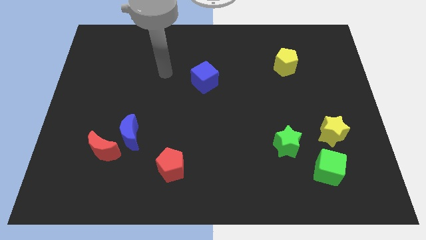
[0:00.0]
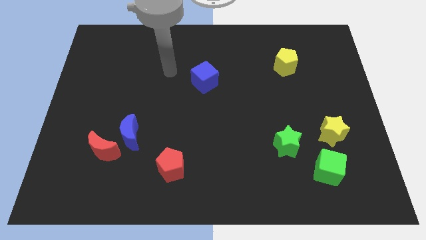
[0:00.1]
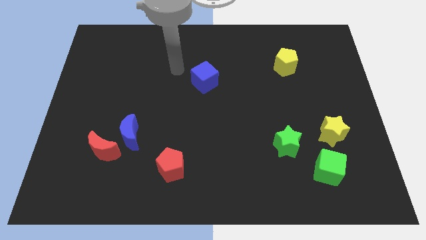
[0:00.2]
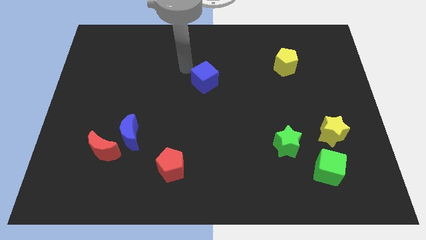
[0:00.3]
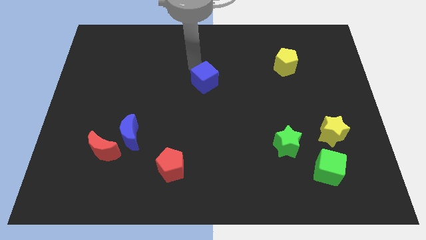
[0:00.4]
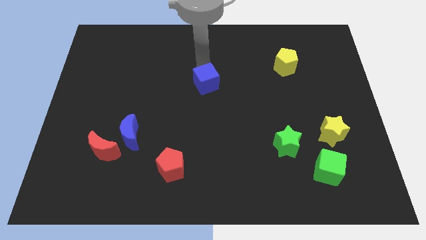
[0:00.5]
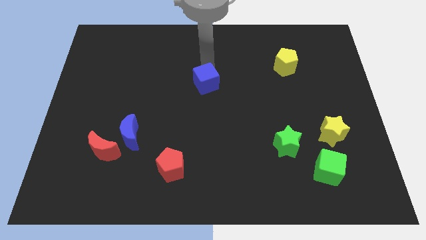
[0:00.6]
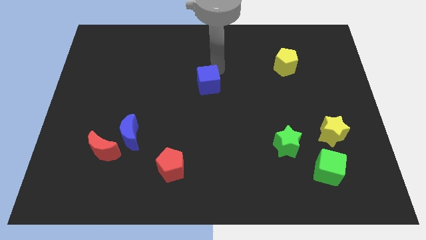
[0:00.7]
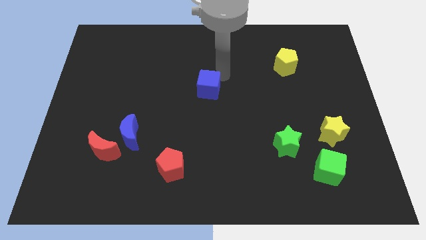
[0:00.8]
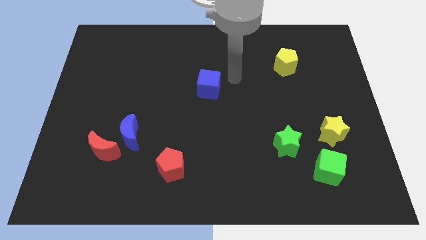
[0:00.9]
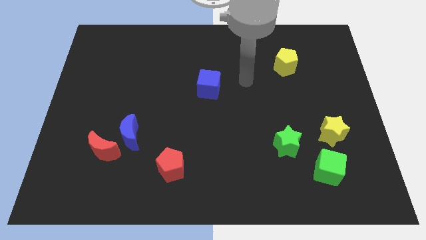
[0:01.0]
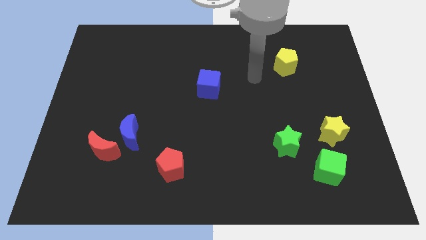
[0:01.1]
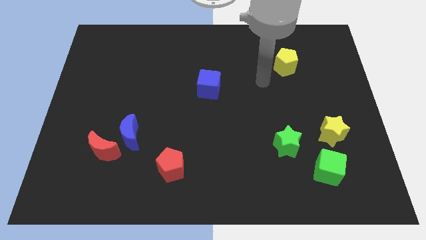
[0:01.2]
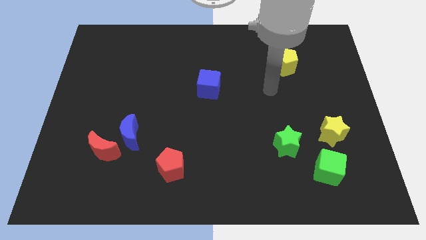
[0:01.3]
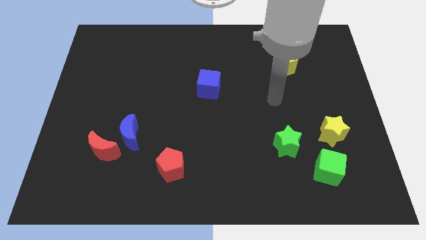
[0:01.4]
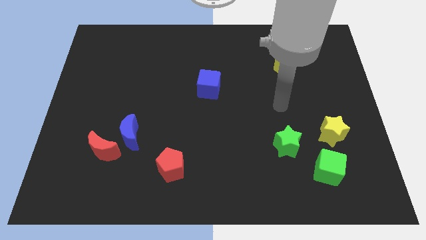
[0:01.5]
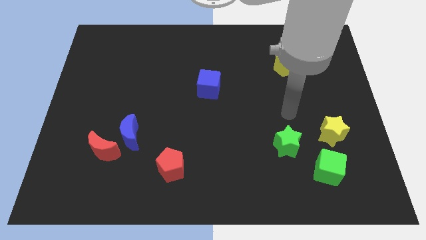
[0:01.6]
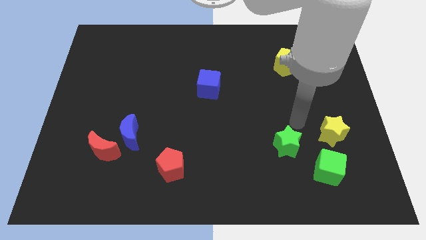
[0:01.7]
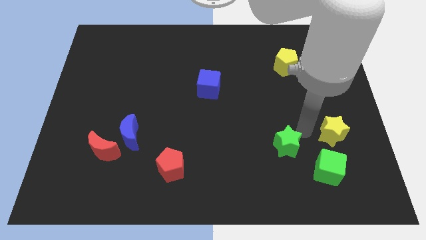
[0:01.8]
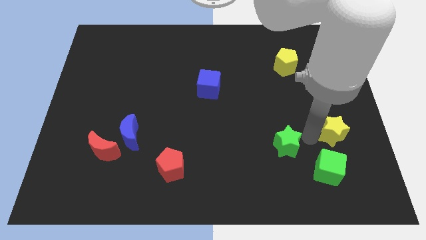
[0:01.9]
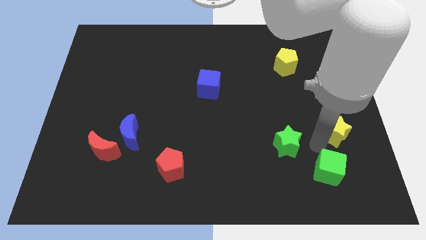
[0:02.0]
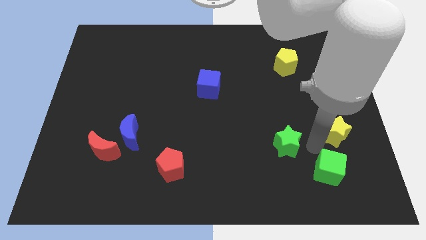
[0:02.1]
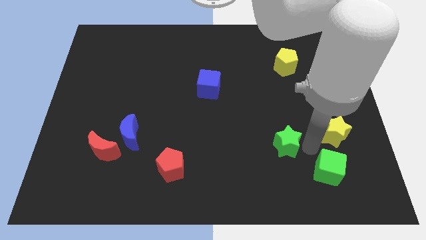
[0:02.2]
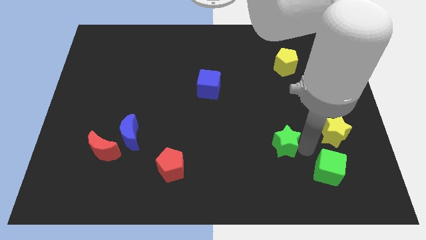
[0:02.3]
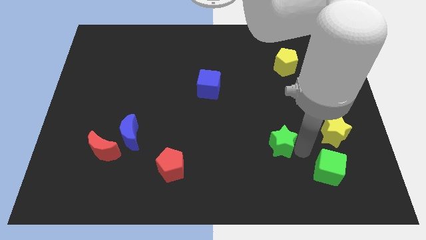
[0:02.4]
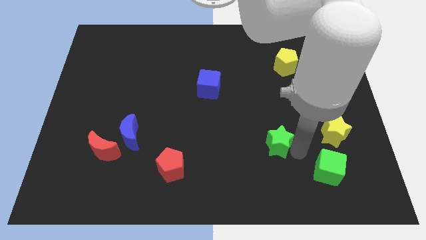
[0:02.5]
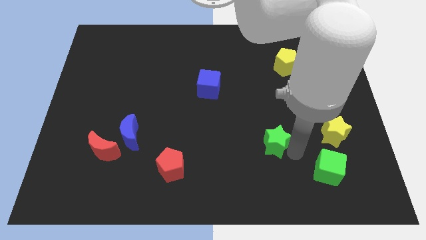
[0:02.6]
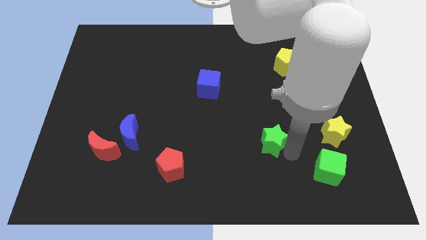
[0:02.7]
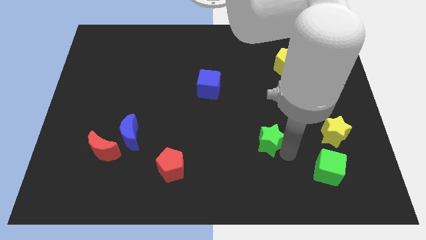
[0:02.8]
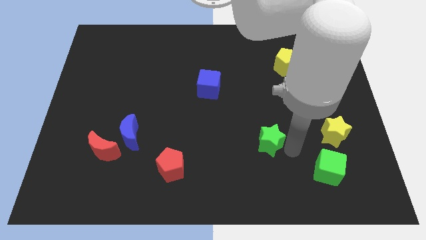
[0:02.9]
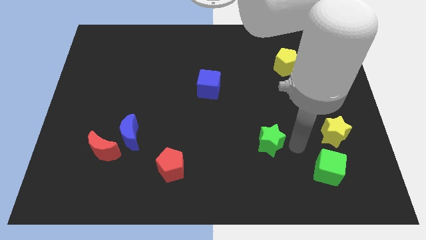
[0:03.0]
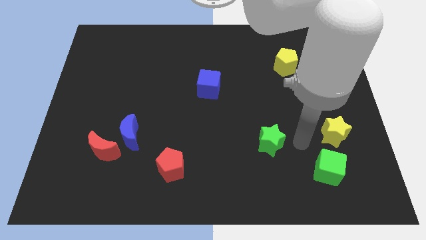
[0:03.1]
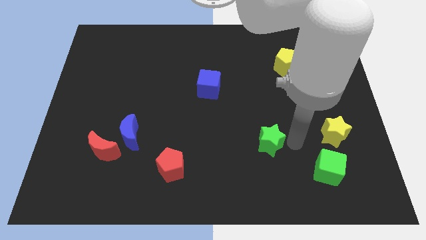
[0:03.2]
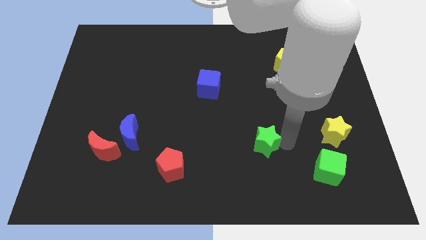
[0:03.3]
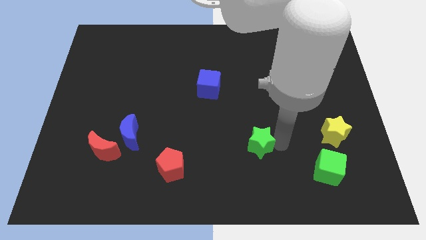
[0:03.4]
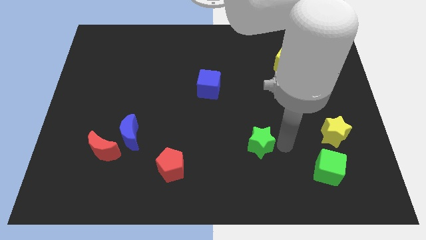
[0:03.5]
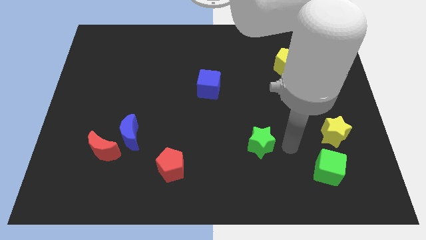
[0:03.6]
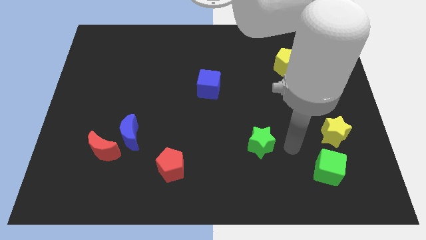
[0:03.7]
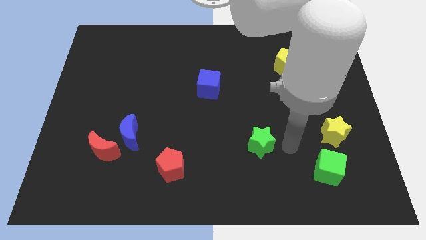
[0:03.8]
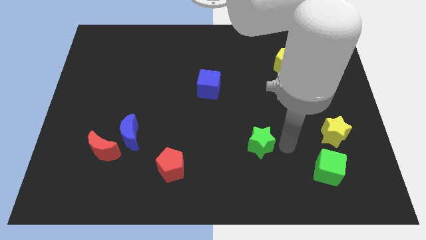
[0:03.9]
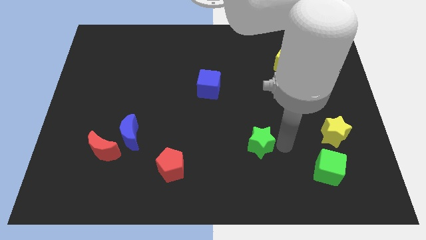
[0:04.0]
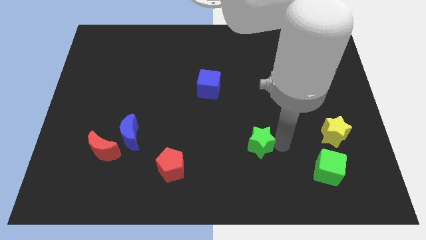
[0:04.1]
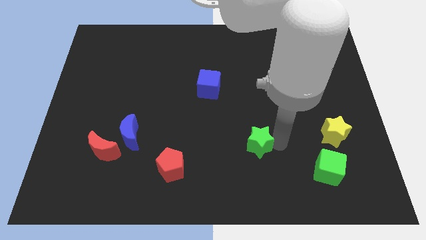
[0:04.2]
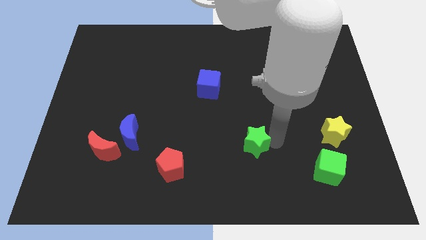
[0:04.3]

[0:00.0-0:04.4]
slightly move the green star left

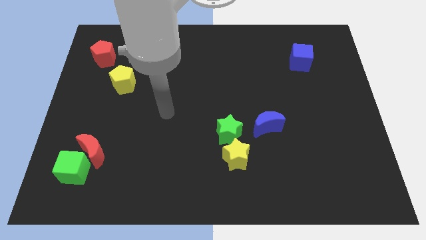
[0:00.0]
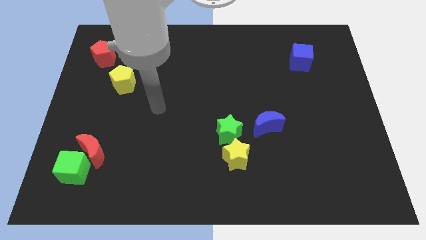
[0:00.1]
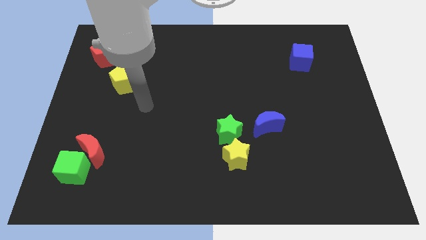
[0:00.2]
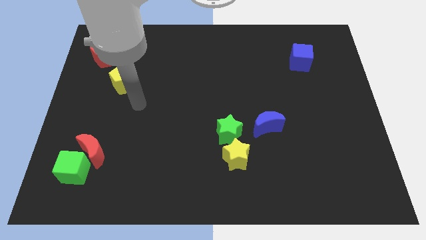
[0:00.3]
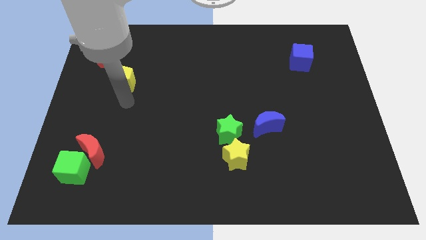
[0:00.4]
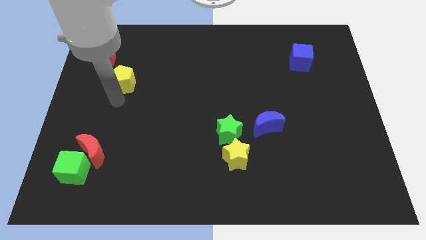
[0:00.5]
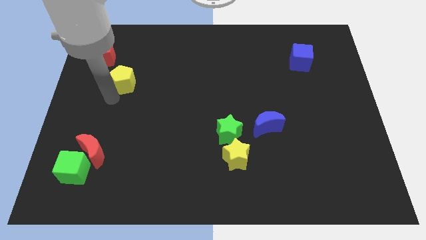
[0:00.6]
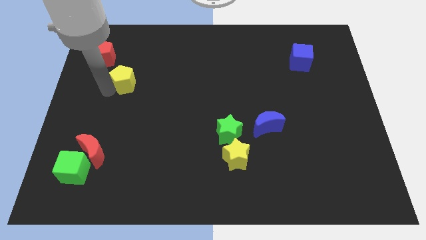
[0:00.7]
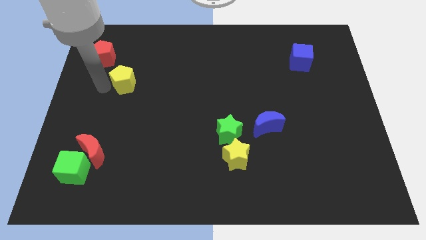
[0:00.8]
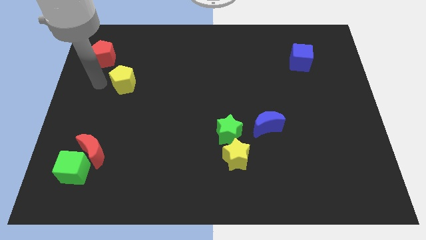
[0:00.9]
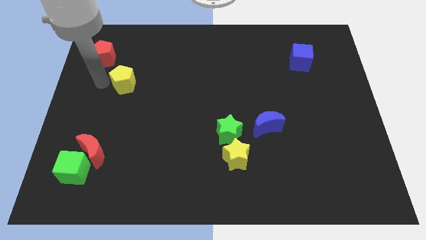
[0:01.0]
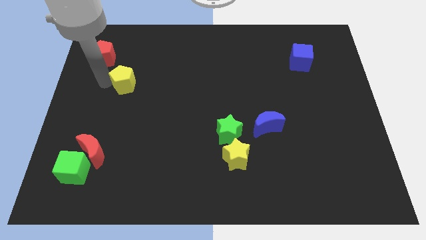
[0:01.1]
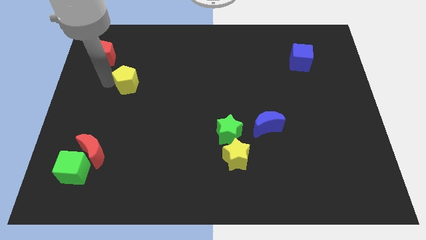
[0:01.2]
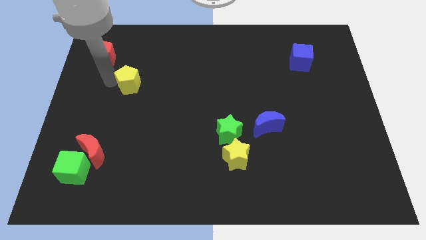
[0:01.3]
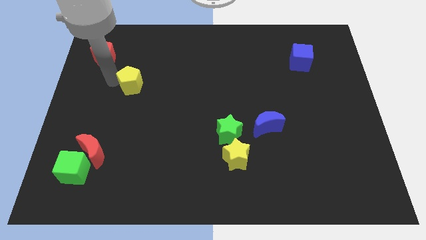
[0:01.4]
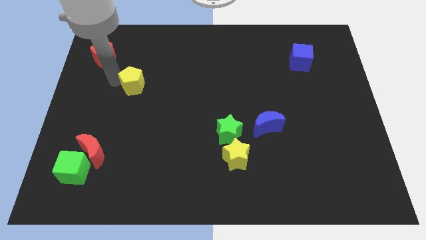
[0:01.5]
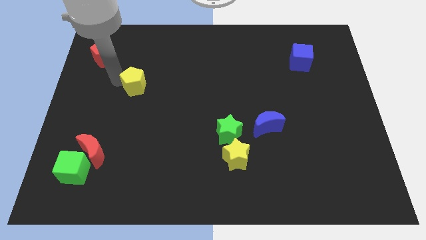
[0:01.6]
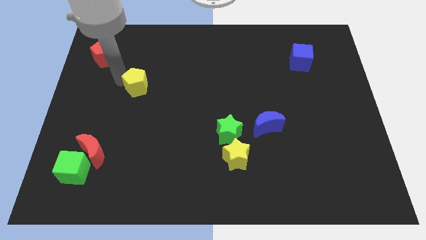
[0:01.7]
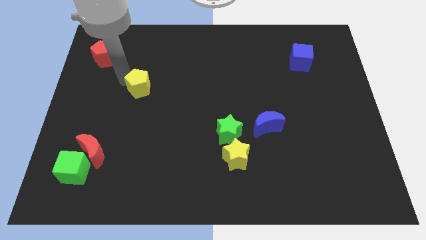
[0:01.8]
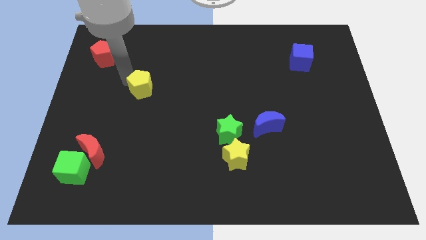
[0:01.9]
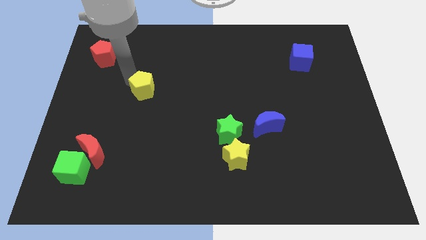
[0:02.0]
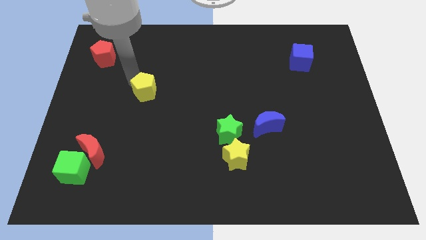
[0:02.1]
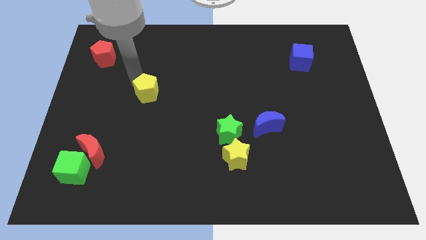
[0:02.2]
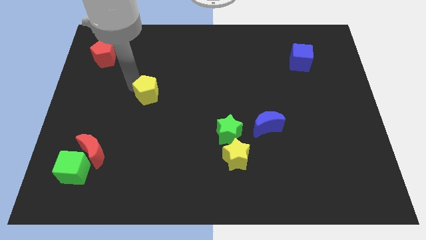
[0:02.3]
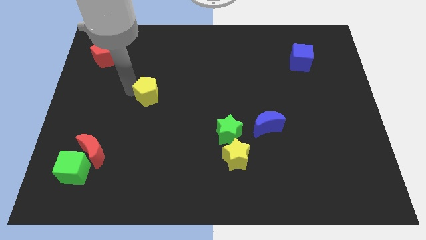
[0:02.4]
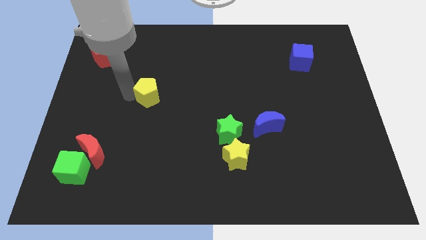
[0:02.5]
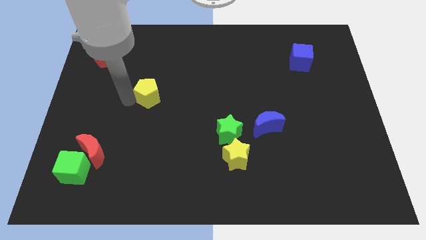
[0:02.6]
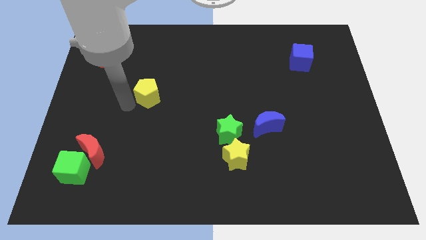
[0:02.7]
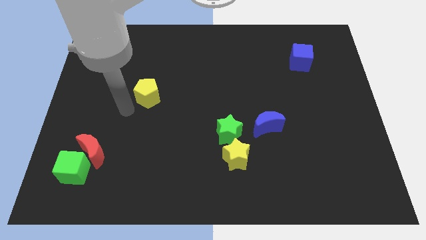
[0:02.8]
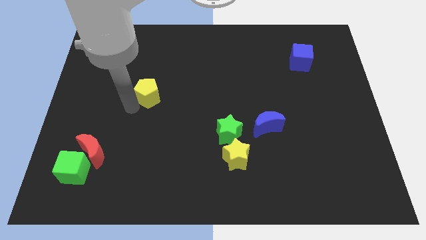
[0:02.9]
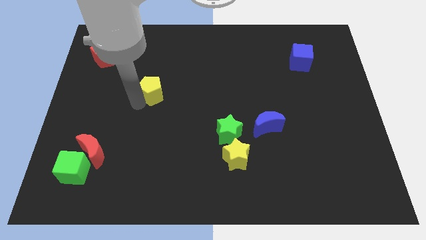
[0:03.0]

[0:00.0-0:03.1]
slightly slide the yellow pentagon to the right

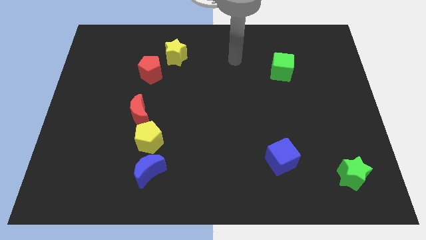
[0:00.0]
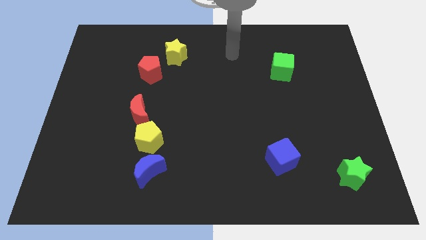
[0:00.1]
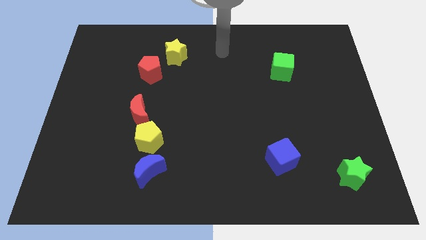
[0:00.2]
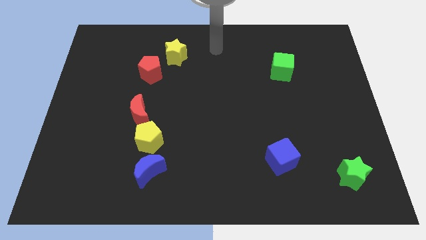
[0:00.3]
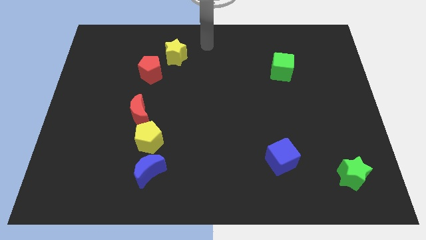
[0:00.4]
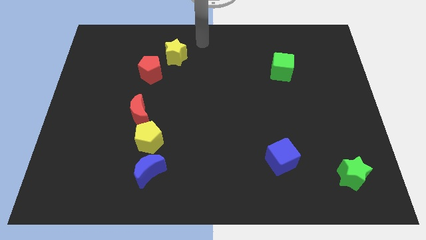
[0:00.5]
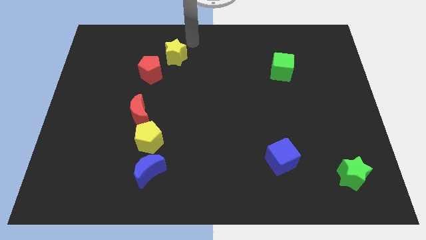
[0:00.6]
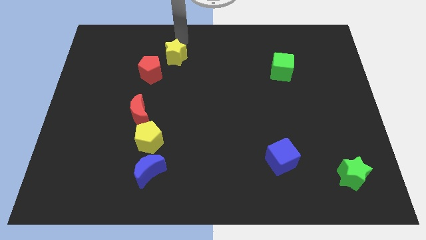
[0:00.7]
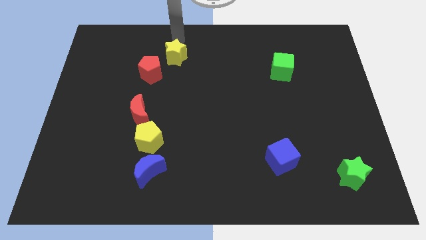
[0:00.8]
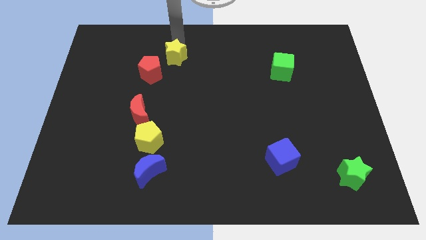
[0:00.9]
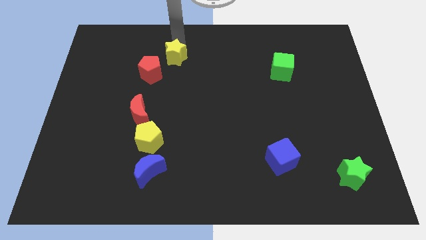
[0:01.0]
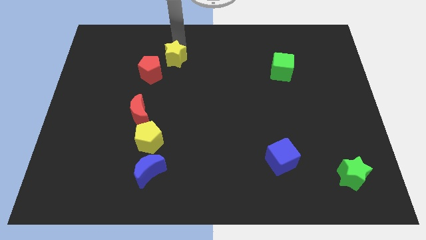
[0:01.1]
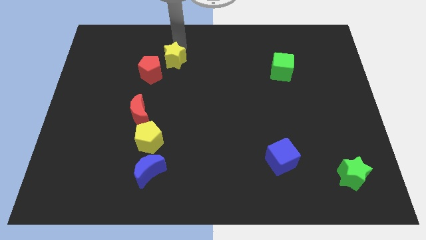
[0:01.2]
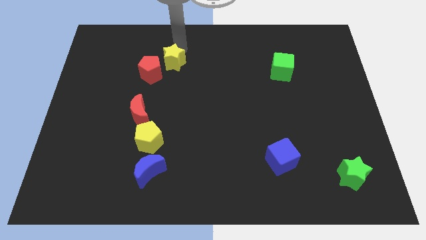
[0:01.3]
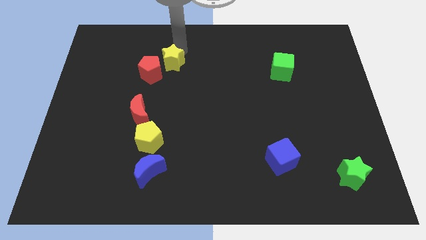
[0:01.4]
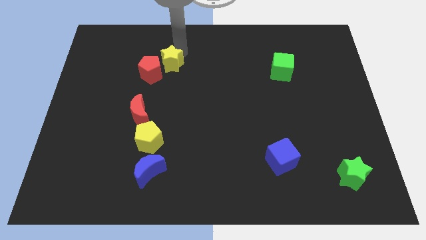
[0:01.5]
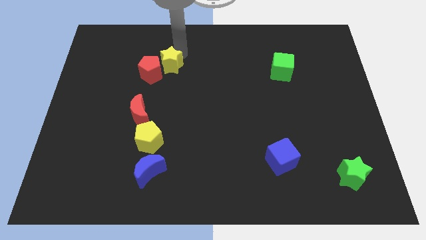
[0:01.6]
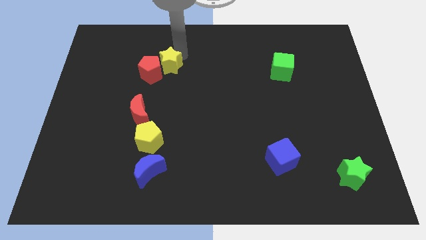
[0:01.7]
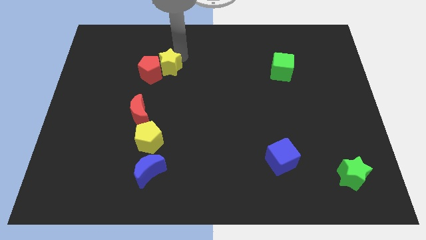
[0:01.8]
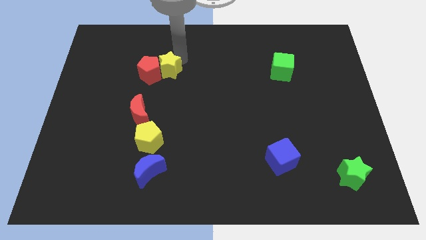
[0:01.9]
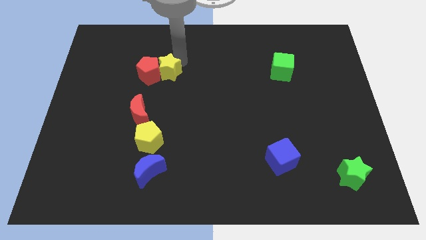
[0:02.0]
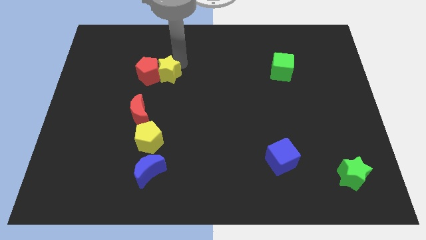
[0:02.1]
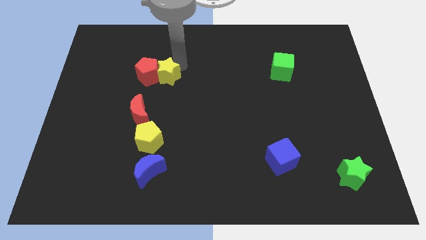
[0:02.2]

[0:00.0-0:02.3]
move the yellow star a bit down
